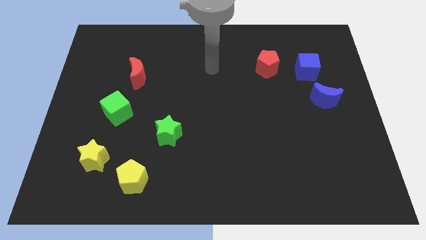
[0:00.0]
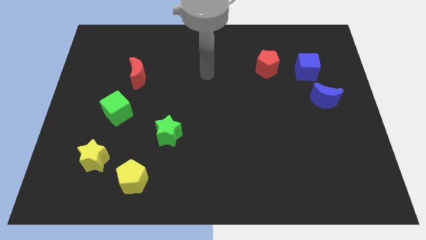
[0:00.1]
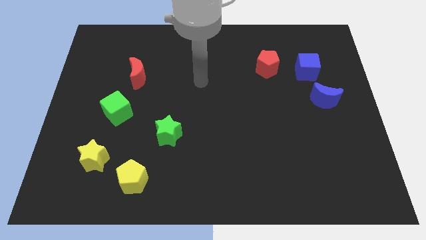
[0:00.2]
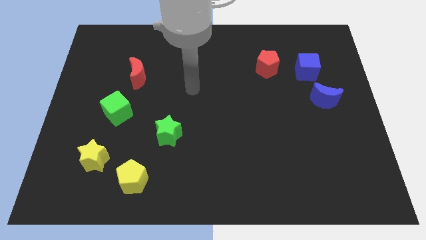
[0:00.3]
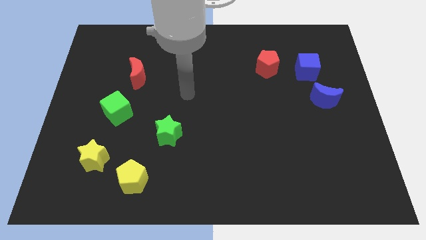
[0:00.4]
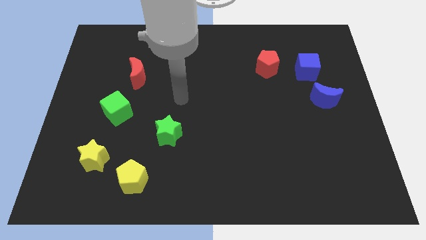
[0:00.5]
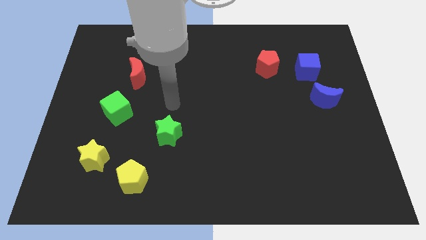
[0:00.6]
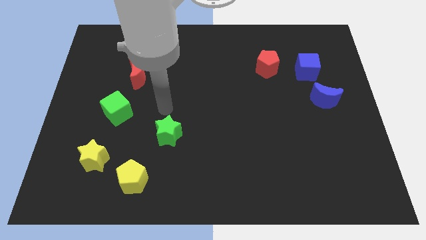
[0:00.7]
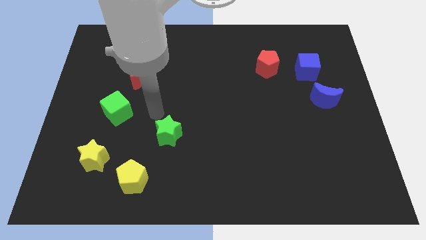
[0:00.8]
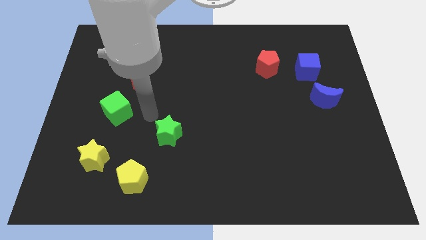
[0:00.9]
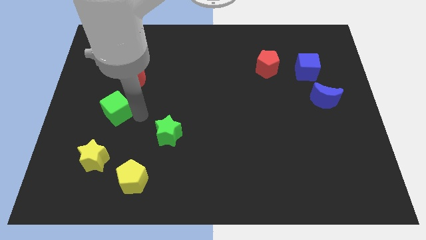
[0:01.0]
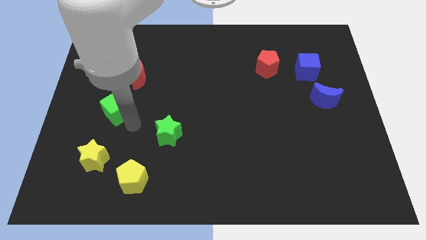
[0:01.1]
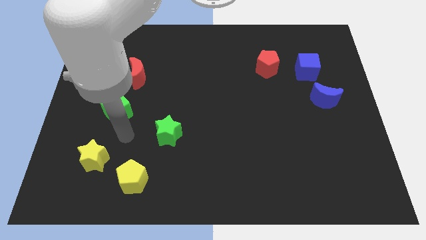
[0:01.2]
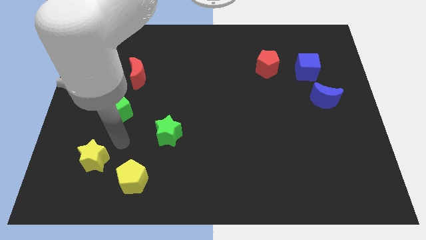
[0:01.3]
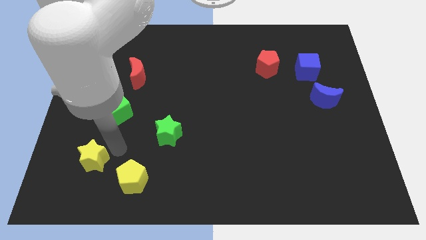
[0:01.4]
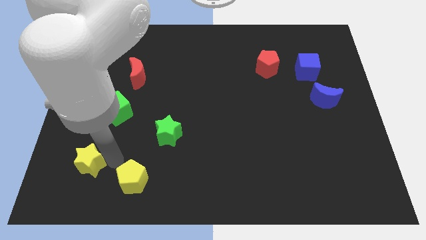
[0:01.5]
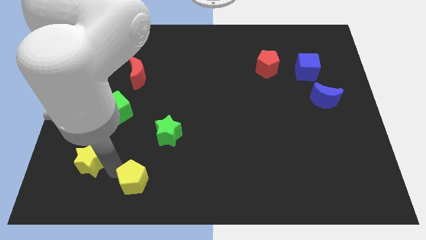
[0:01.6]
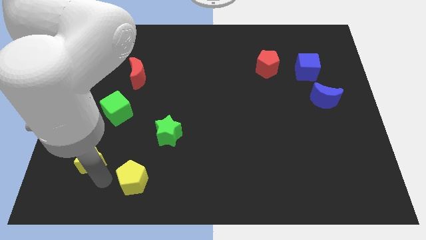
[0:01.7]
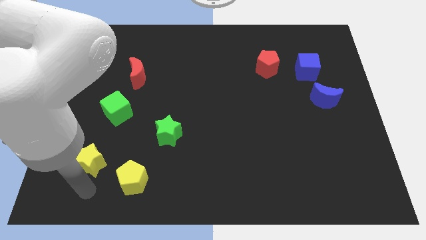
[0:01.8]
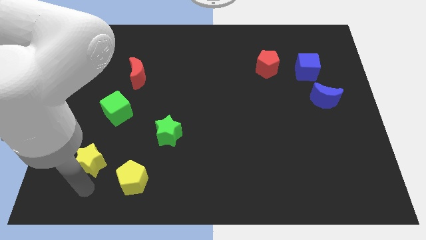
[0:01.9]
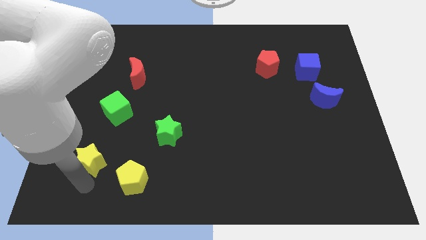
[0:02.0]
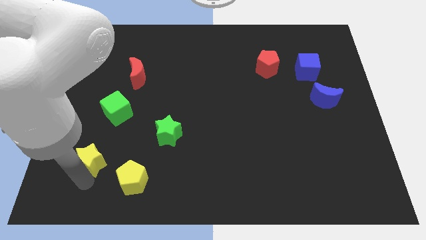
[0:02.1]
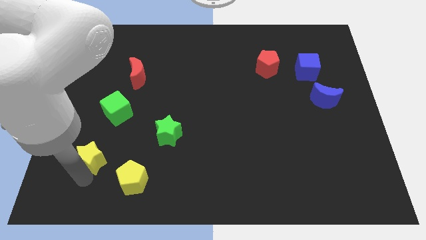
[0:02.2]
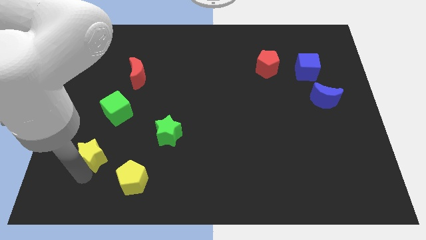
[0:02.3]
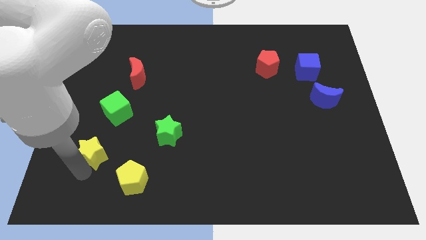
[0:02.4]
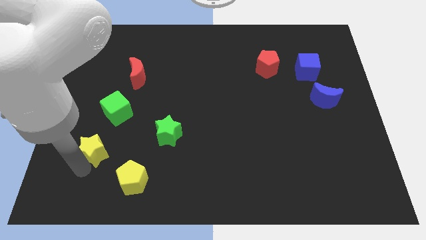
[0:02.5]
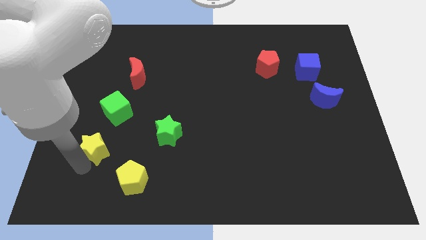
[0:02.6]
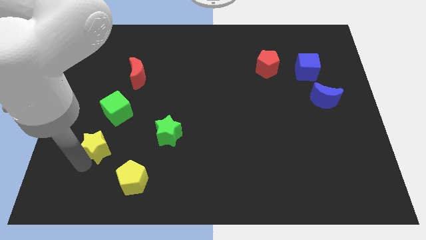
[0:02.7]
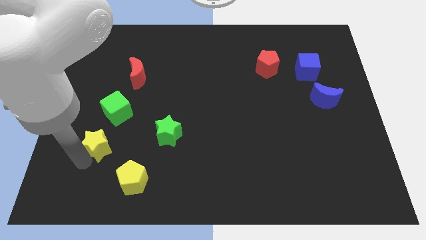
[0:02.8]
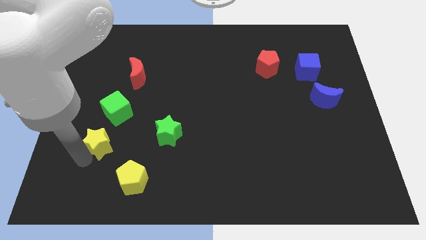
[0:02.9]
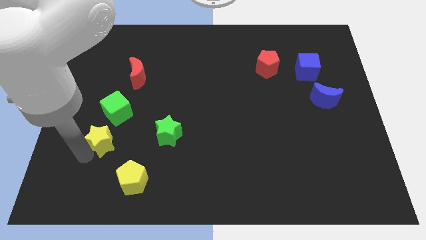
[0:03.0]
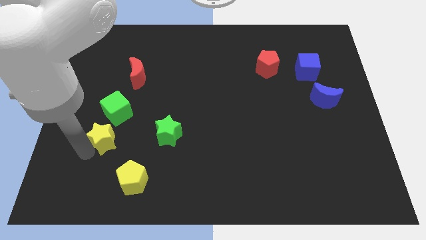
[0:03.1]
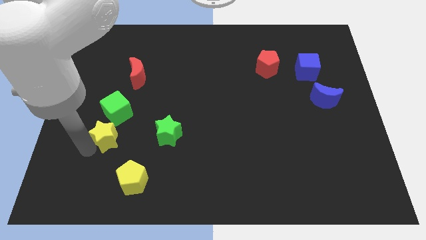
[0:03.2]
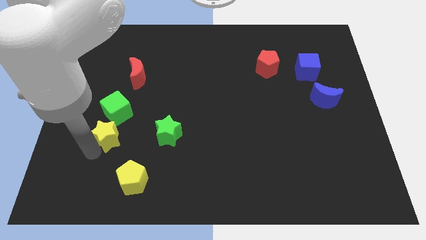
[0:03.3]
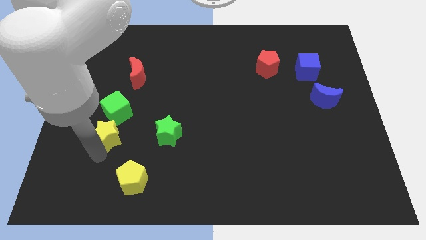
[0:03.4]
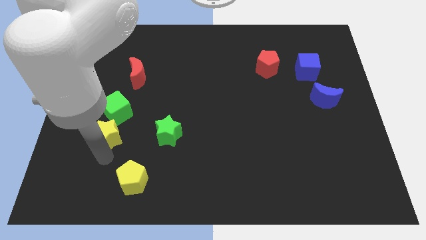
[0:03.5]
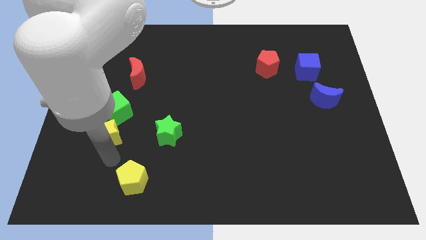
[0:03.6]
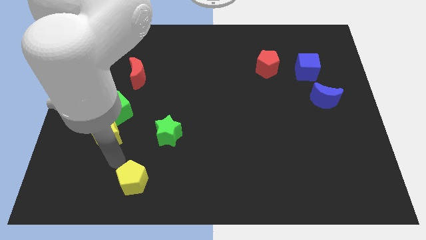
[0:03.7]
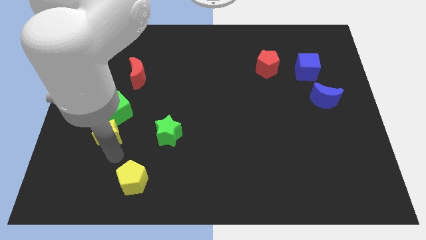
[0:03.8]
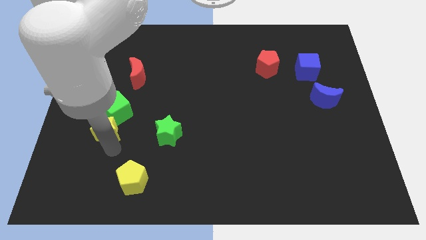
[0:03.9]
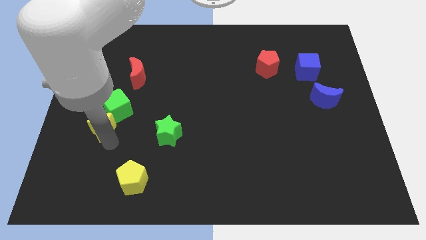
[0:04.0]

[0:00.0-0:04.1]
slightly slide the yellow star up

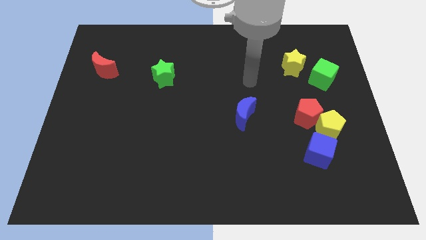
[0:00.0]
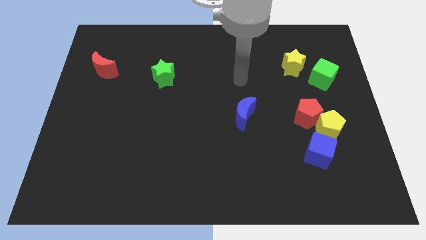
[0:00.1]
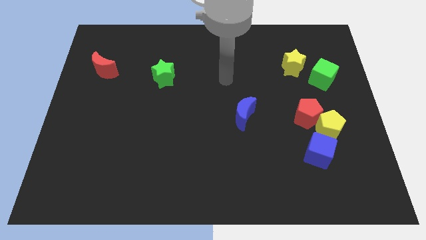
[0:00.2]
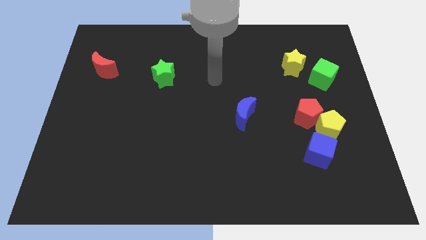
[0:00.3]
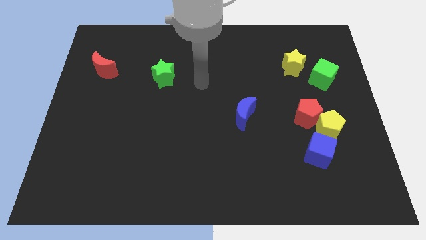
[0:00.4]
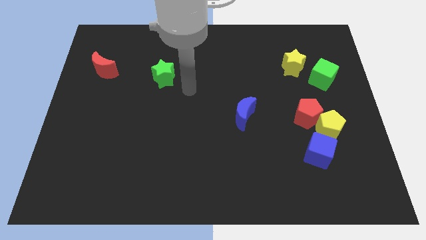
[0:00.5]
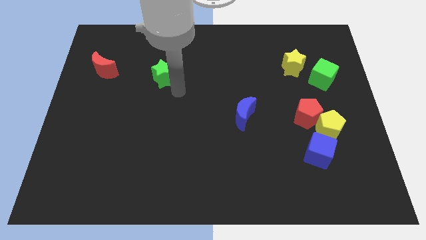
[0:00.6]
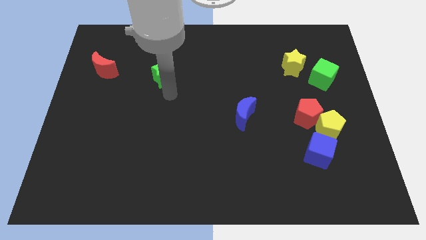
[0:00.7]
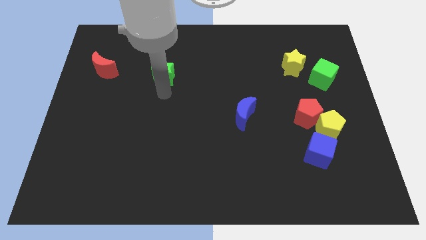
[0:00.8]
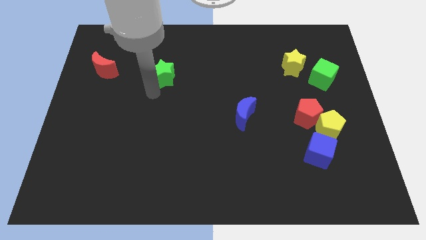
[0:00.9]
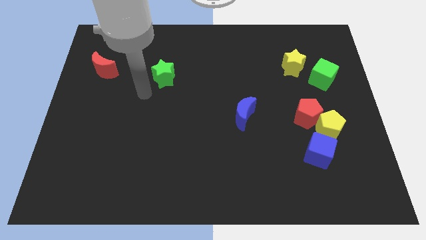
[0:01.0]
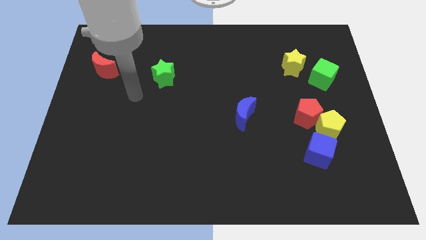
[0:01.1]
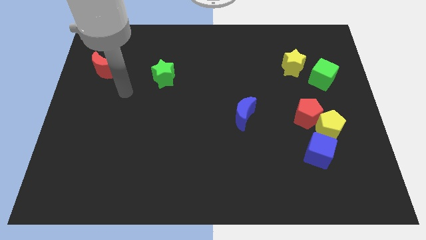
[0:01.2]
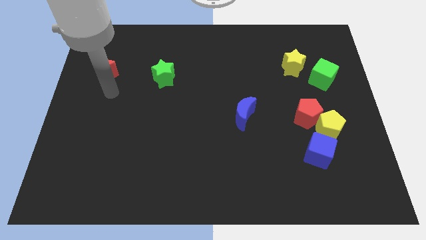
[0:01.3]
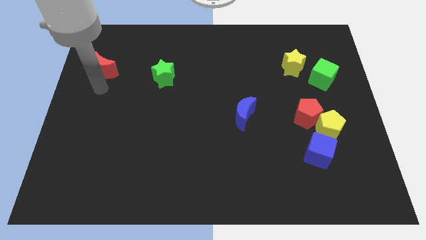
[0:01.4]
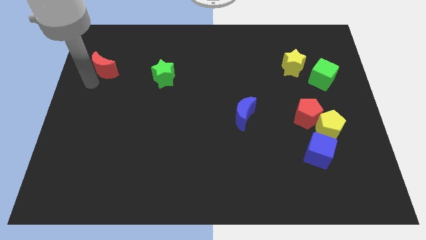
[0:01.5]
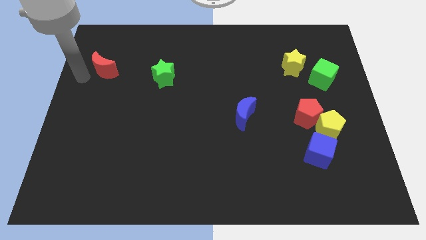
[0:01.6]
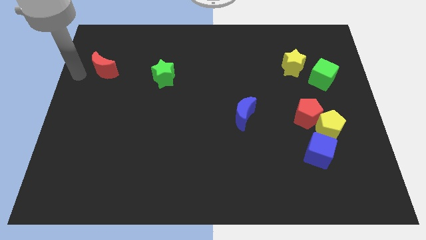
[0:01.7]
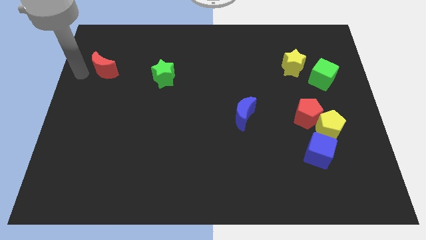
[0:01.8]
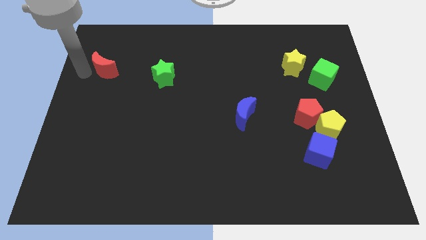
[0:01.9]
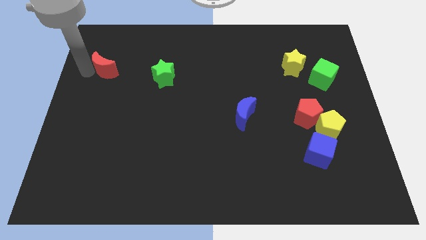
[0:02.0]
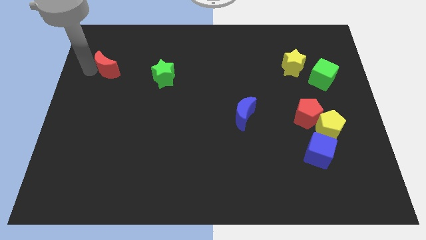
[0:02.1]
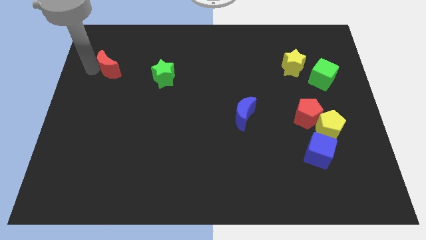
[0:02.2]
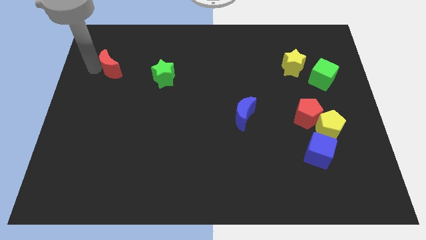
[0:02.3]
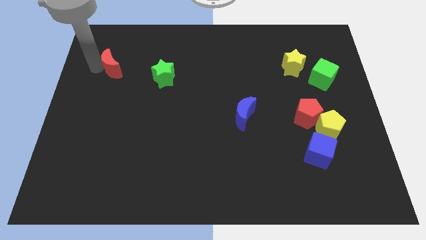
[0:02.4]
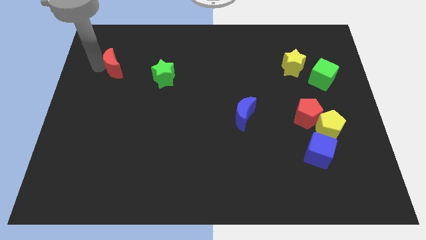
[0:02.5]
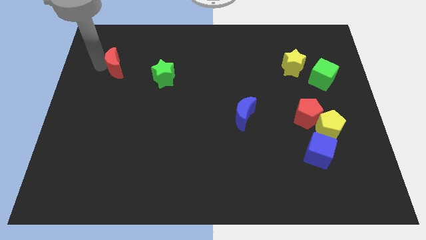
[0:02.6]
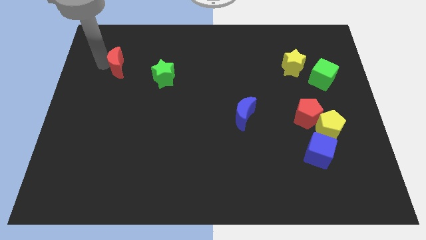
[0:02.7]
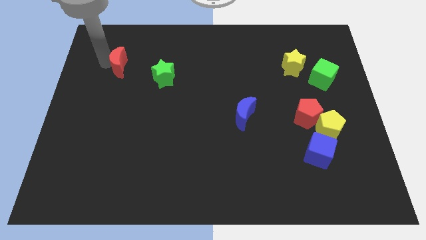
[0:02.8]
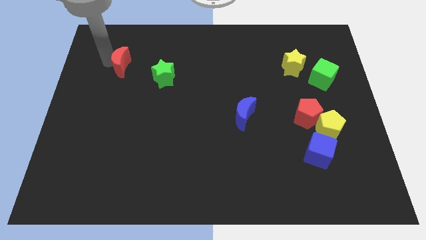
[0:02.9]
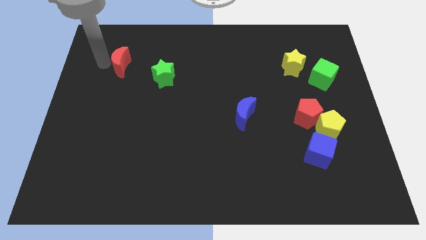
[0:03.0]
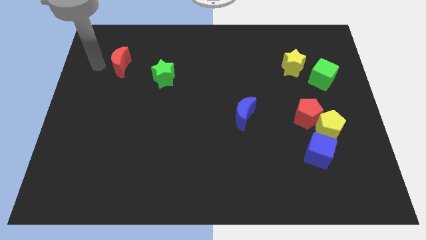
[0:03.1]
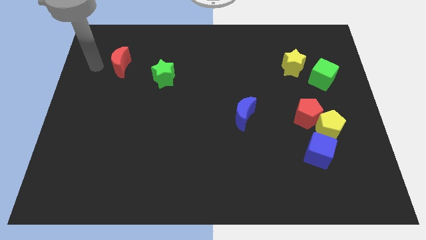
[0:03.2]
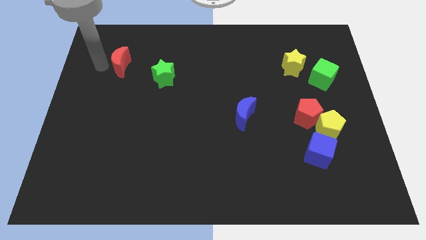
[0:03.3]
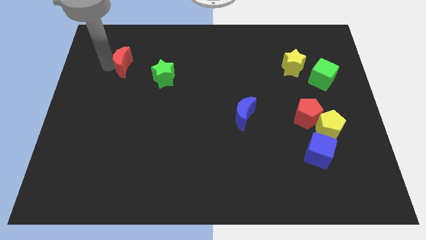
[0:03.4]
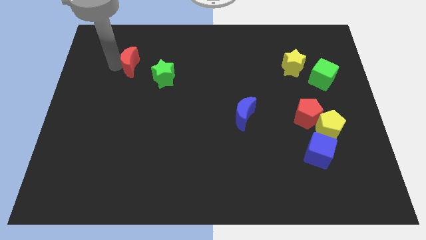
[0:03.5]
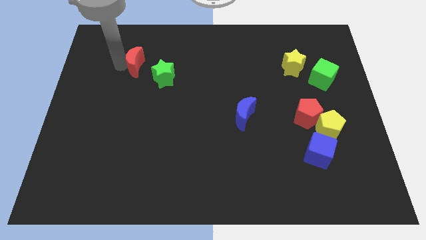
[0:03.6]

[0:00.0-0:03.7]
slide the red moon to the right a little bit
